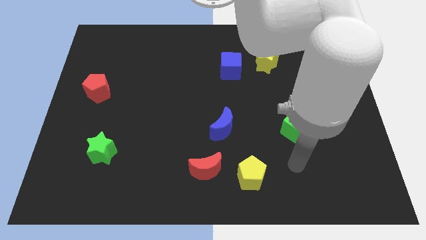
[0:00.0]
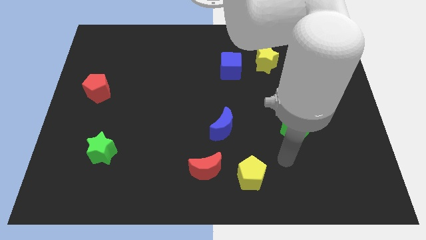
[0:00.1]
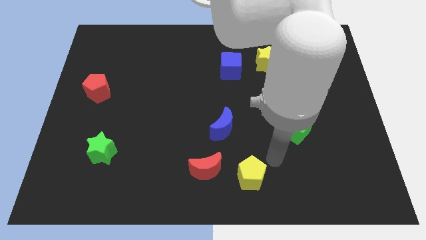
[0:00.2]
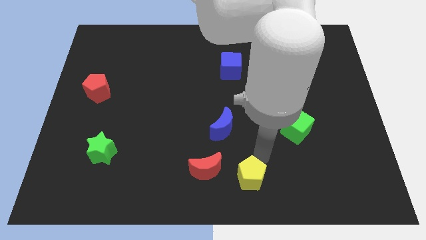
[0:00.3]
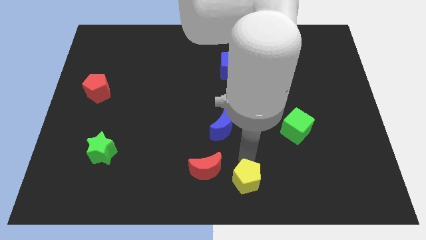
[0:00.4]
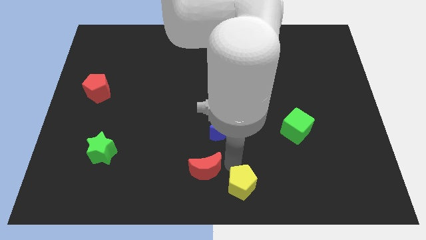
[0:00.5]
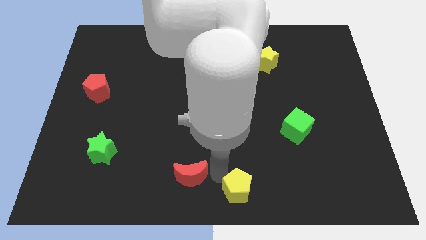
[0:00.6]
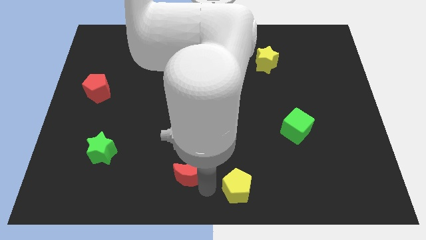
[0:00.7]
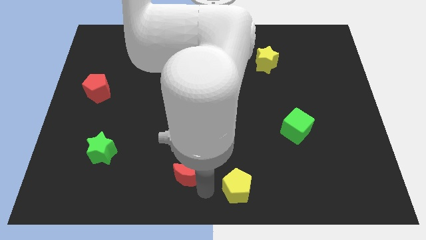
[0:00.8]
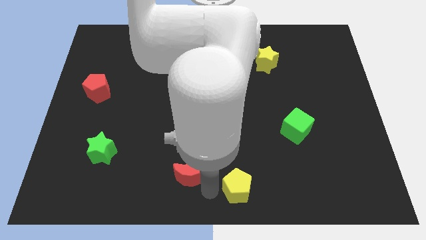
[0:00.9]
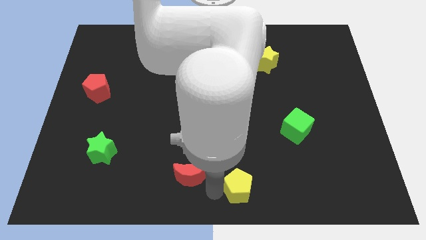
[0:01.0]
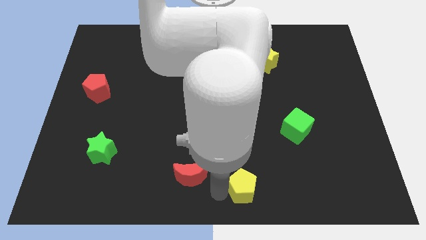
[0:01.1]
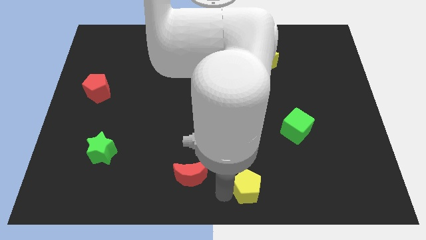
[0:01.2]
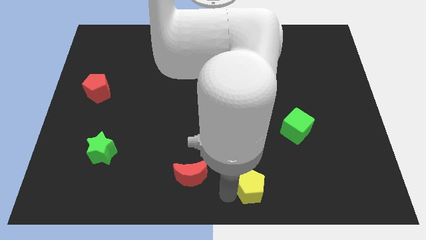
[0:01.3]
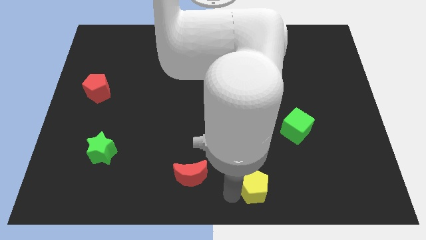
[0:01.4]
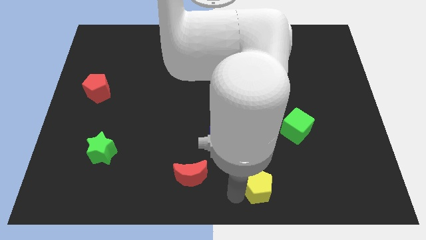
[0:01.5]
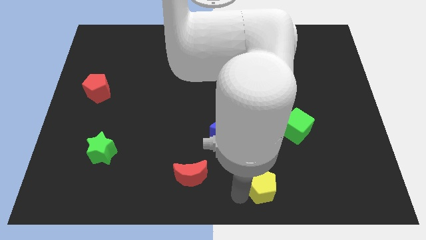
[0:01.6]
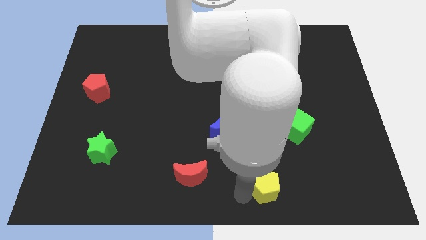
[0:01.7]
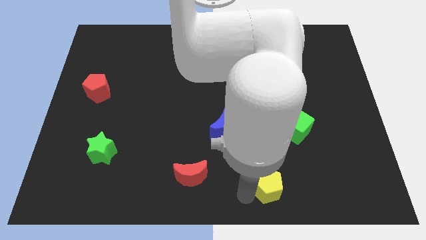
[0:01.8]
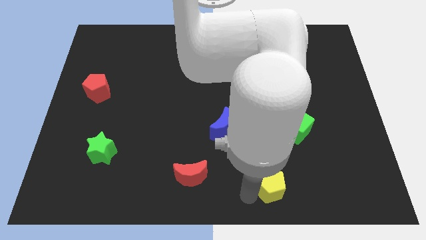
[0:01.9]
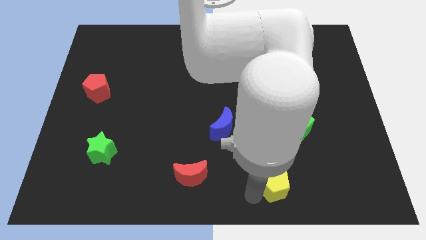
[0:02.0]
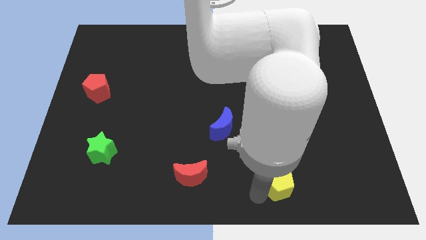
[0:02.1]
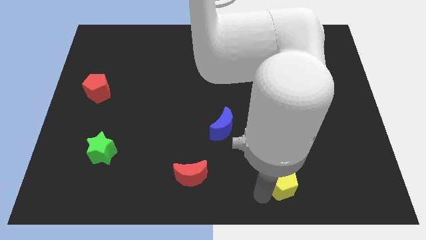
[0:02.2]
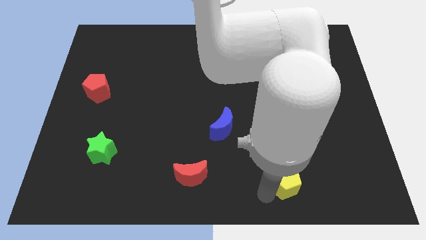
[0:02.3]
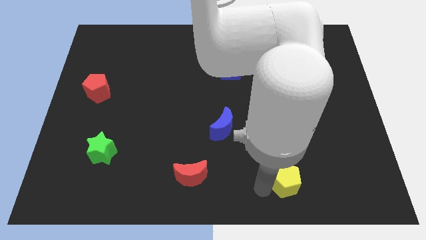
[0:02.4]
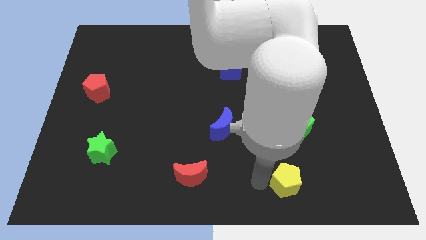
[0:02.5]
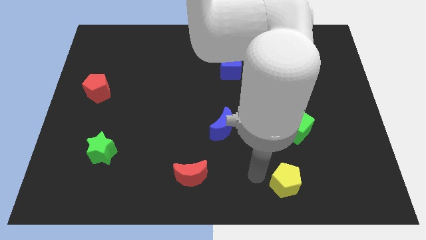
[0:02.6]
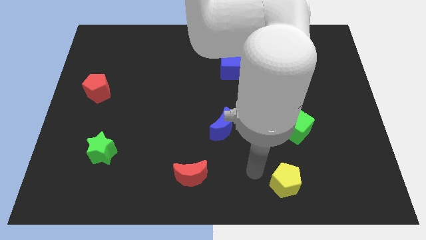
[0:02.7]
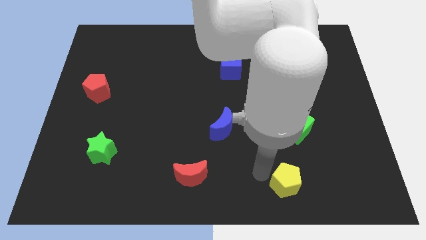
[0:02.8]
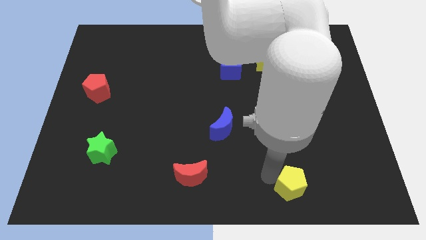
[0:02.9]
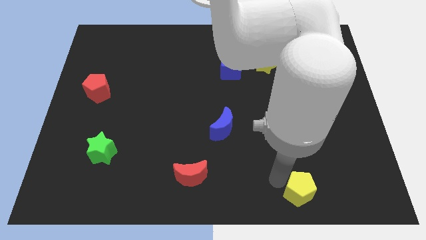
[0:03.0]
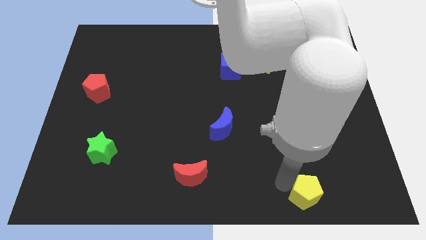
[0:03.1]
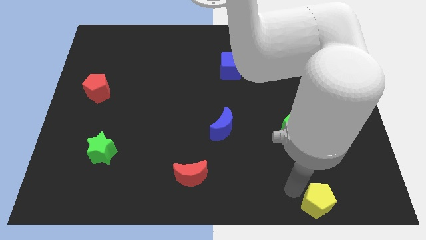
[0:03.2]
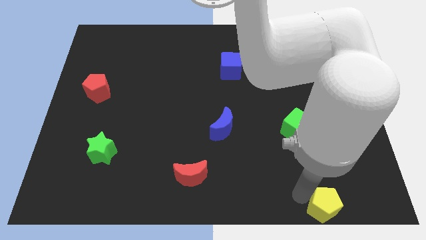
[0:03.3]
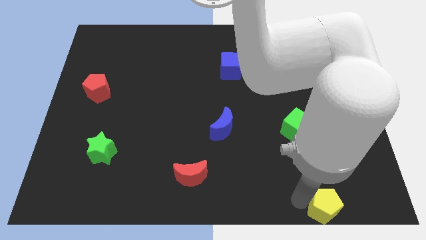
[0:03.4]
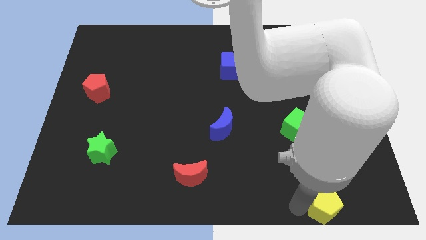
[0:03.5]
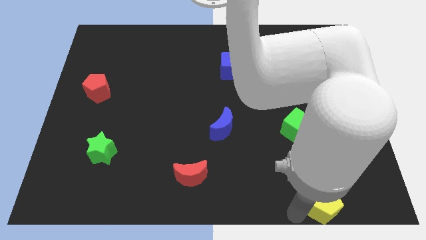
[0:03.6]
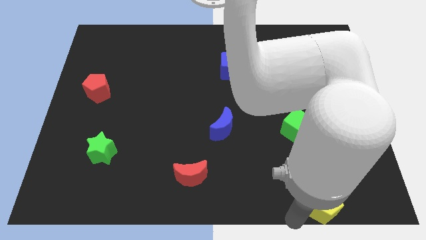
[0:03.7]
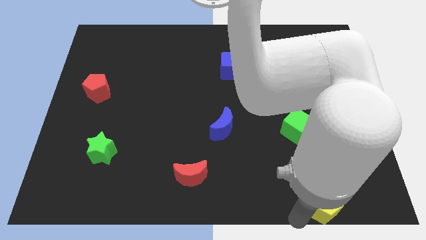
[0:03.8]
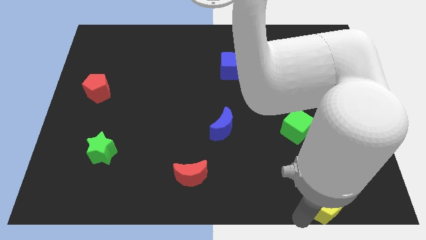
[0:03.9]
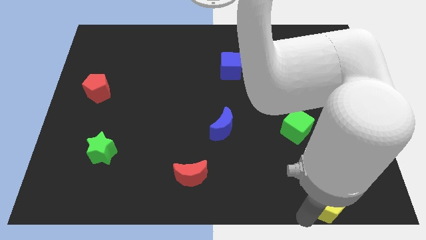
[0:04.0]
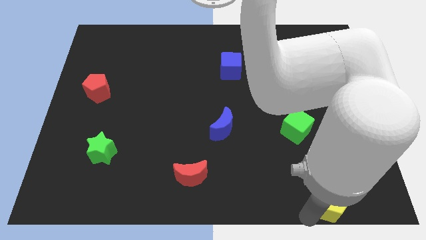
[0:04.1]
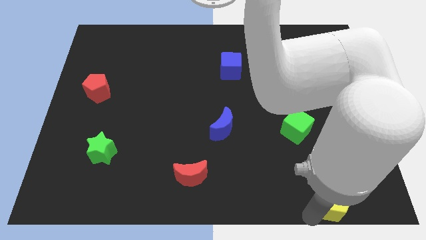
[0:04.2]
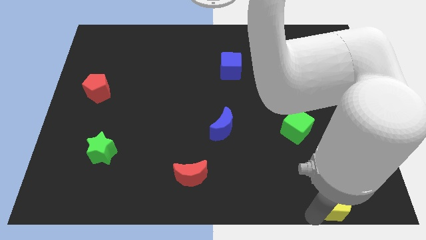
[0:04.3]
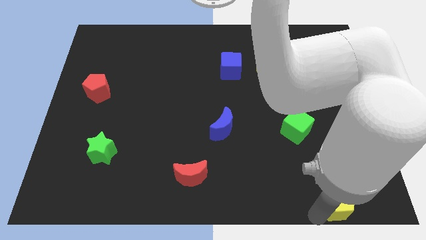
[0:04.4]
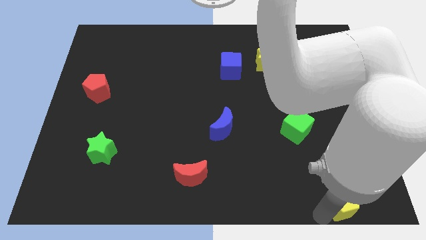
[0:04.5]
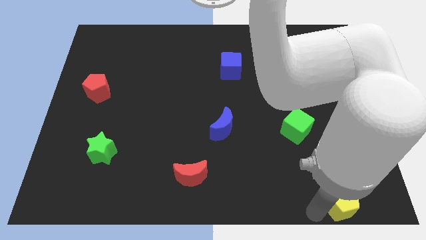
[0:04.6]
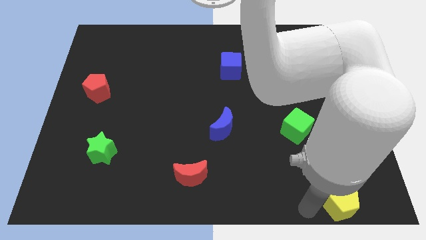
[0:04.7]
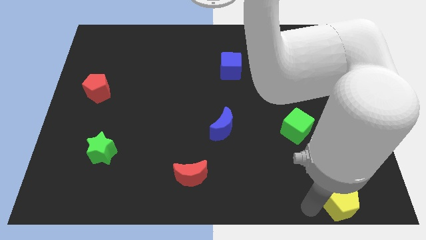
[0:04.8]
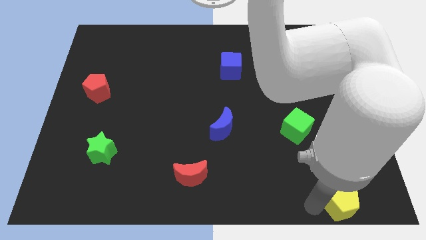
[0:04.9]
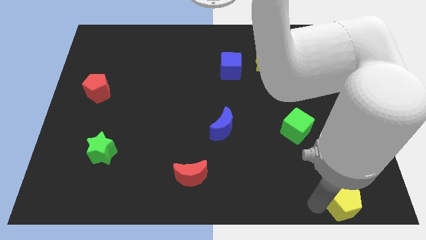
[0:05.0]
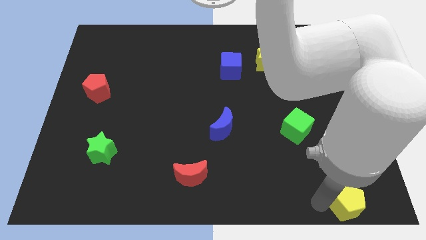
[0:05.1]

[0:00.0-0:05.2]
push the yellow pentagon to the bottom right corner

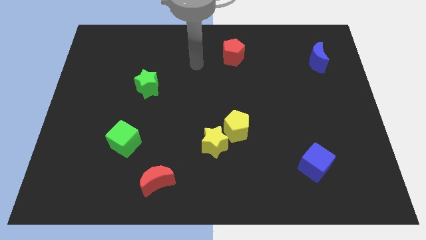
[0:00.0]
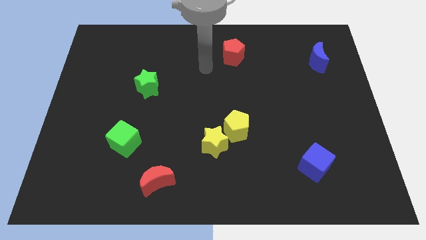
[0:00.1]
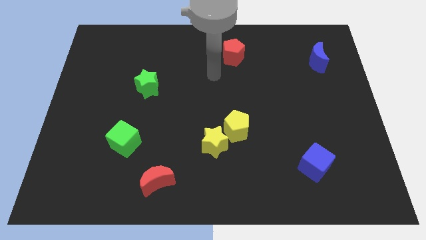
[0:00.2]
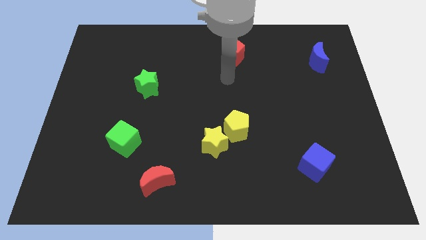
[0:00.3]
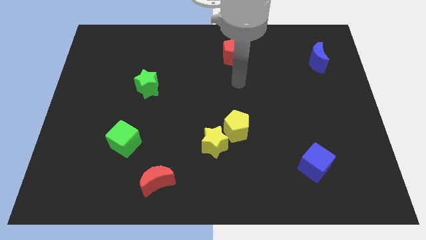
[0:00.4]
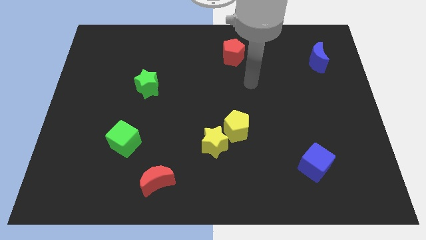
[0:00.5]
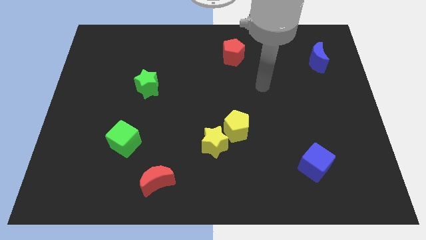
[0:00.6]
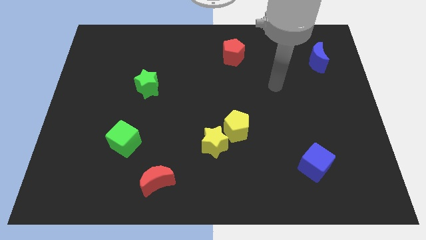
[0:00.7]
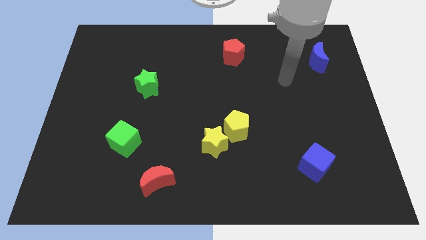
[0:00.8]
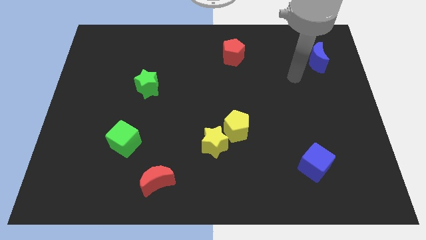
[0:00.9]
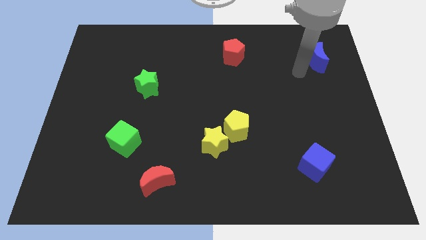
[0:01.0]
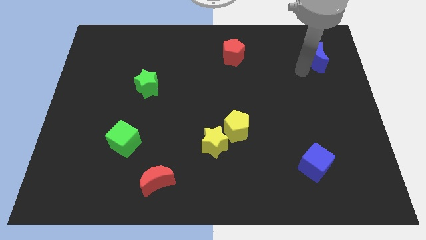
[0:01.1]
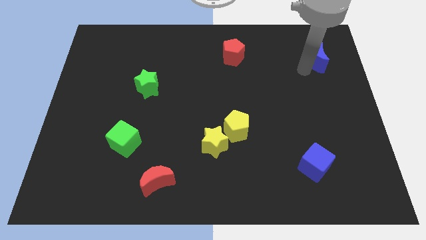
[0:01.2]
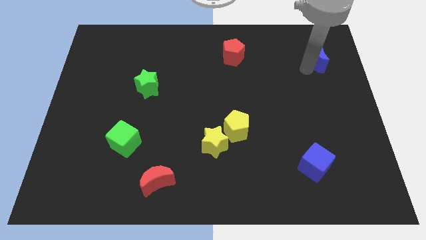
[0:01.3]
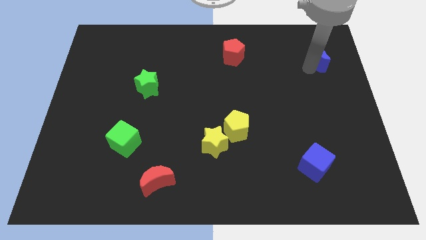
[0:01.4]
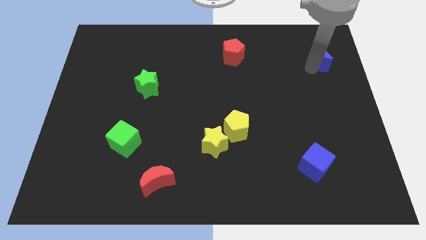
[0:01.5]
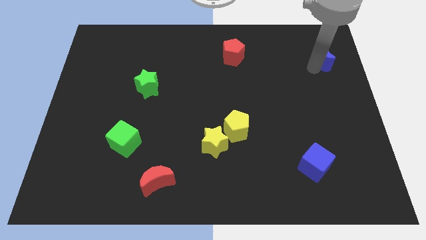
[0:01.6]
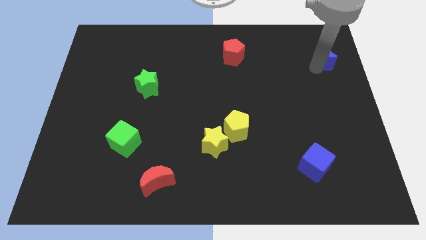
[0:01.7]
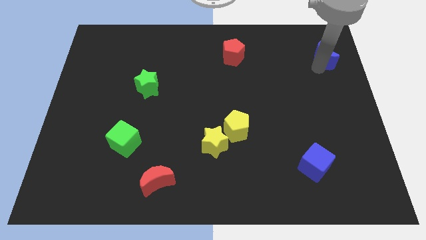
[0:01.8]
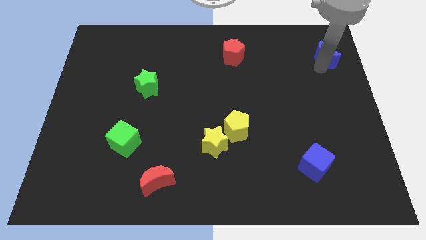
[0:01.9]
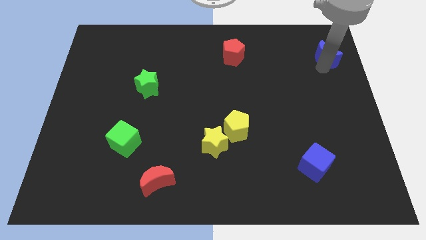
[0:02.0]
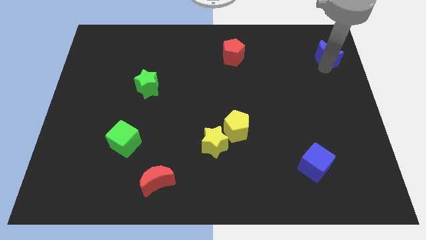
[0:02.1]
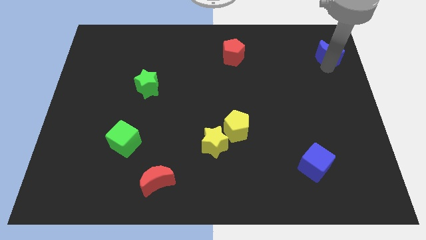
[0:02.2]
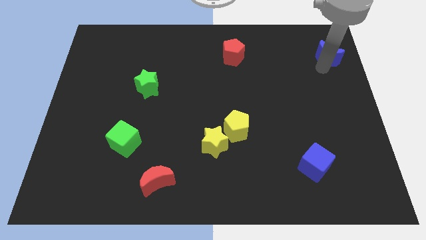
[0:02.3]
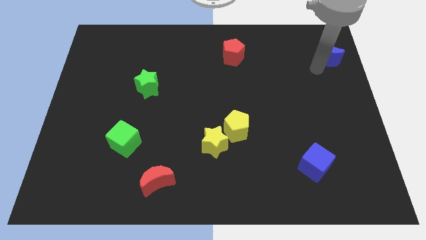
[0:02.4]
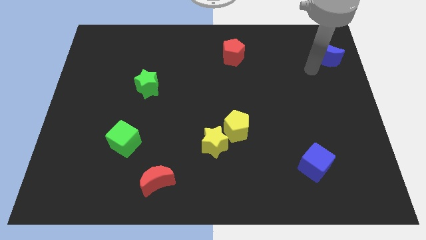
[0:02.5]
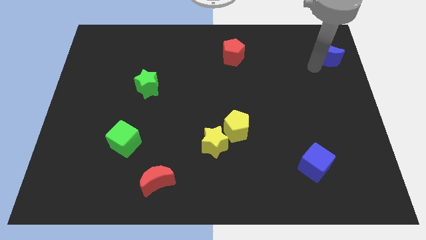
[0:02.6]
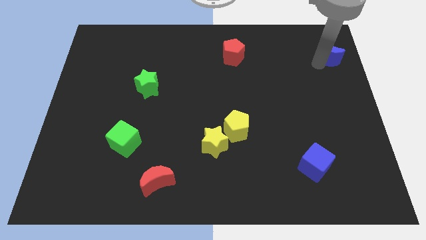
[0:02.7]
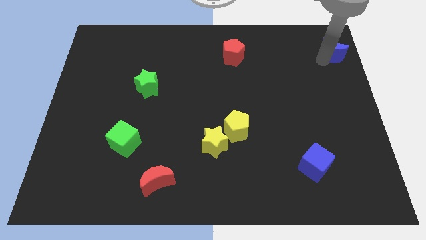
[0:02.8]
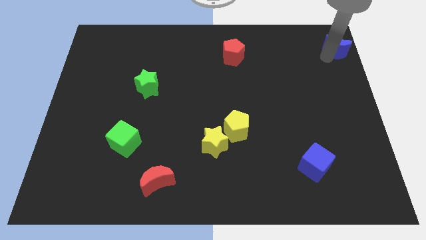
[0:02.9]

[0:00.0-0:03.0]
put the blue moon to the top right
